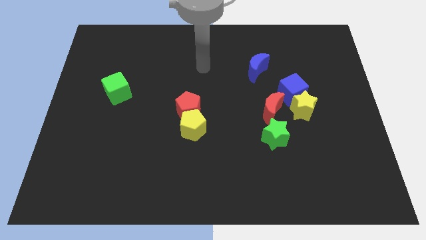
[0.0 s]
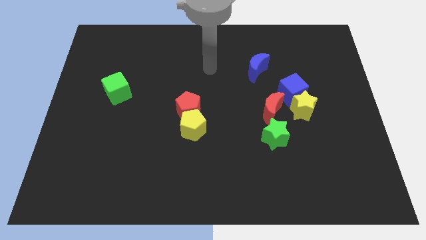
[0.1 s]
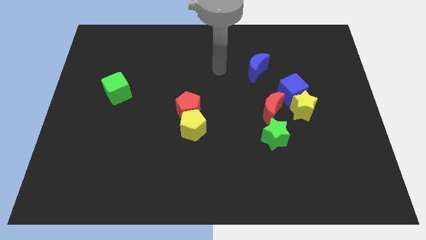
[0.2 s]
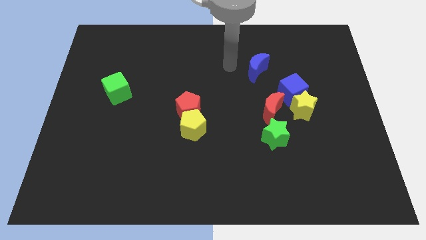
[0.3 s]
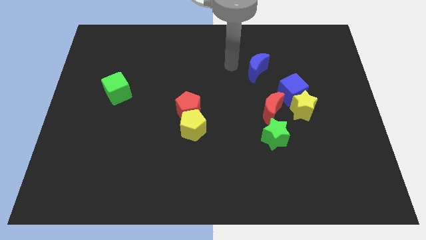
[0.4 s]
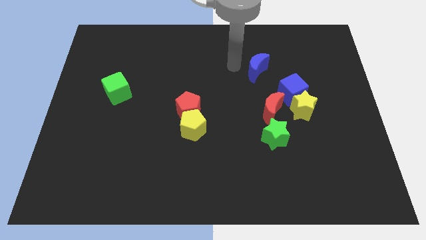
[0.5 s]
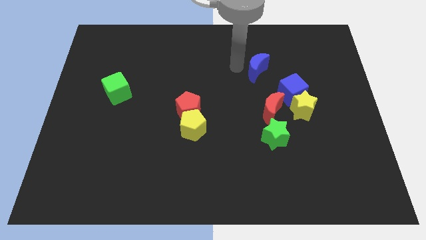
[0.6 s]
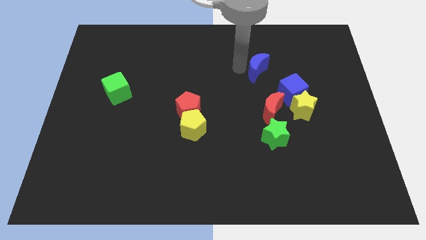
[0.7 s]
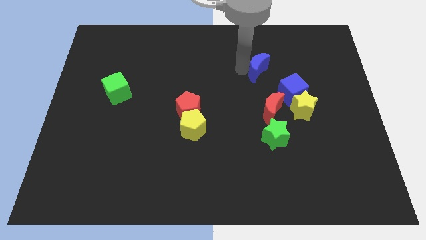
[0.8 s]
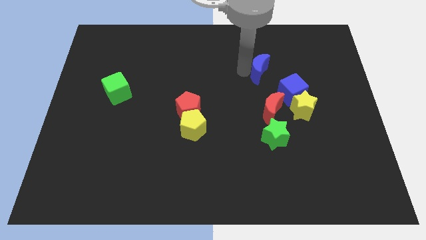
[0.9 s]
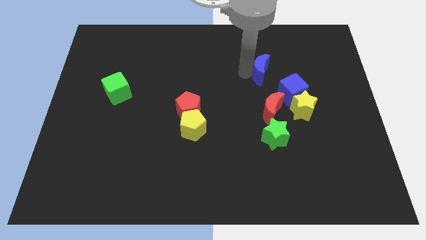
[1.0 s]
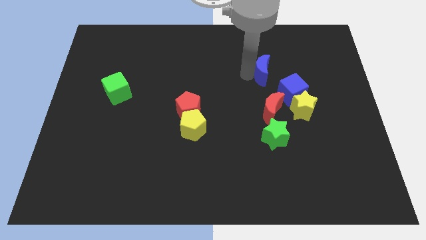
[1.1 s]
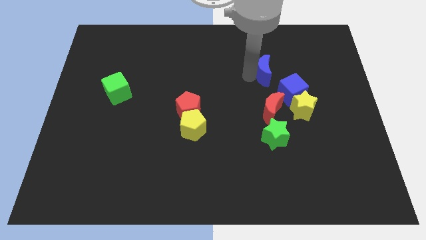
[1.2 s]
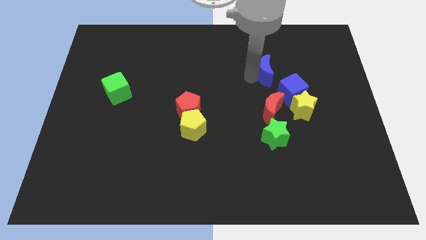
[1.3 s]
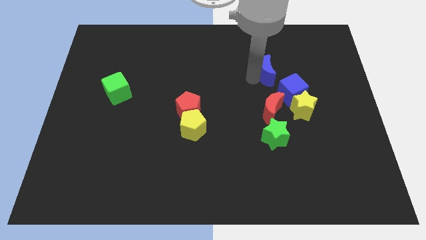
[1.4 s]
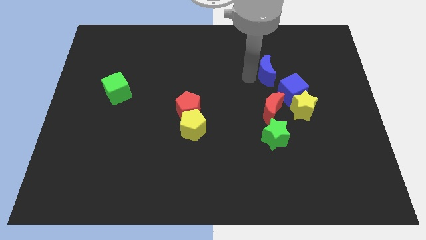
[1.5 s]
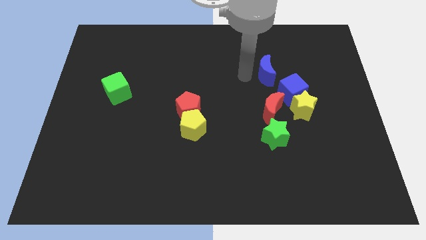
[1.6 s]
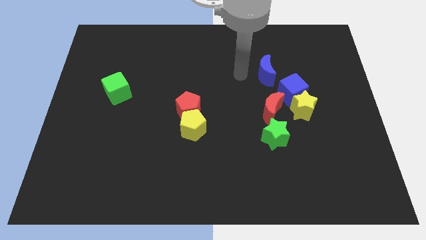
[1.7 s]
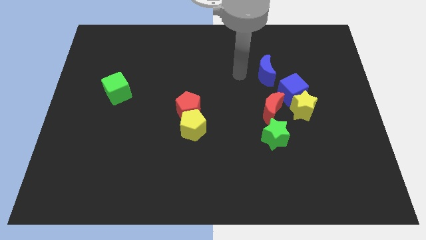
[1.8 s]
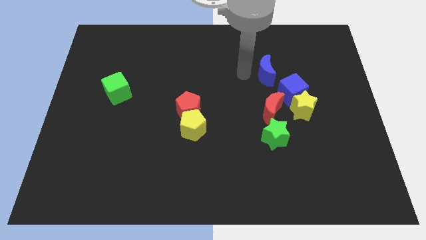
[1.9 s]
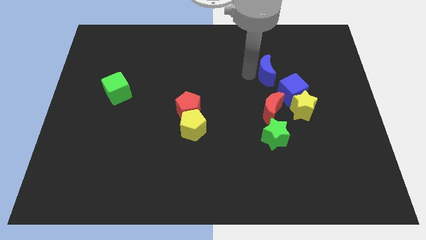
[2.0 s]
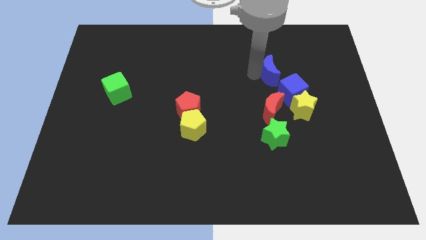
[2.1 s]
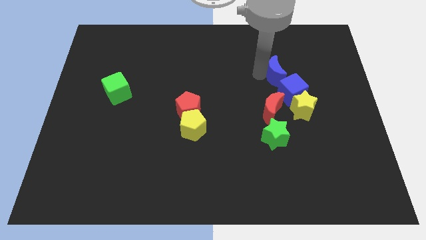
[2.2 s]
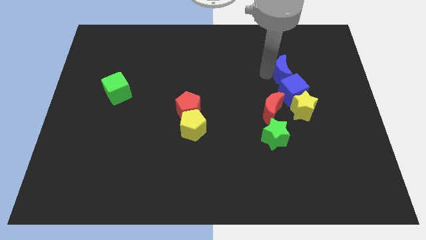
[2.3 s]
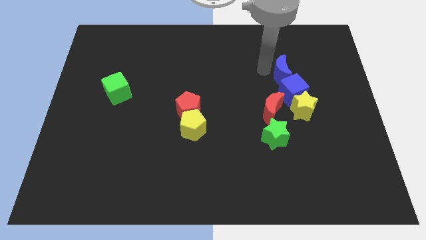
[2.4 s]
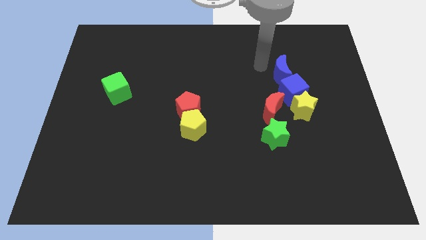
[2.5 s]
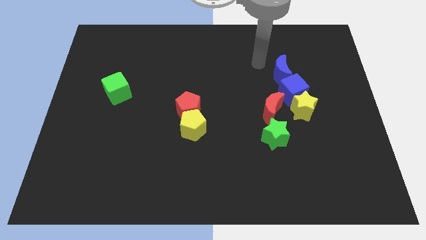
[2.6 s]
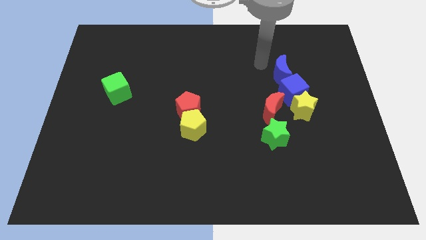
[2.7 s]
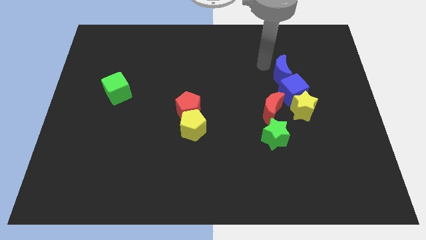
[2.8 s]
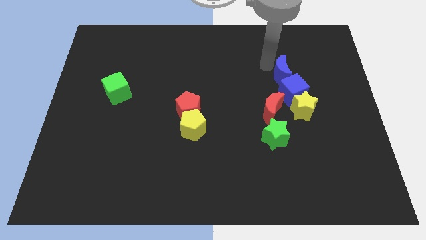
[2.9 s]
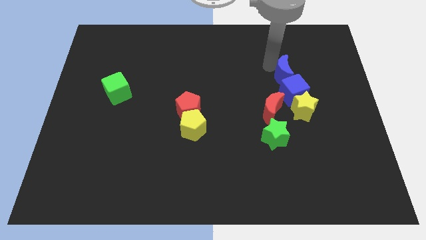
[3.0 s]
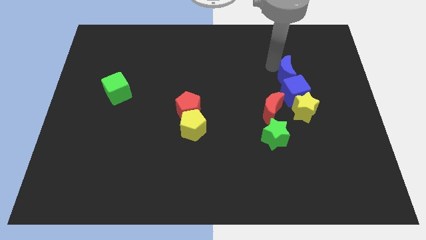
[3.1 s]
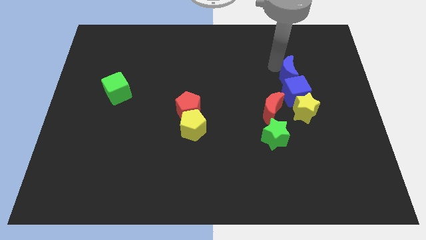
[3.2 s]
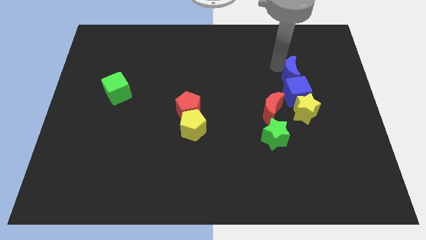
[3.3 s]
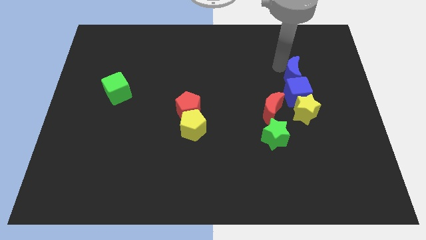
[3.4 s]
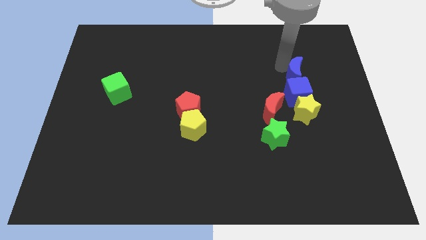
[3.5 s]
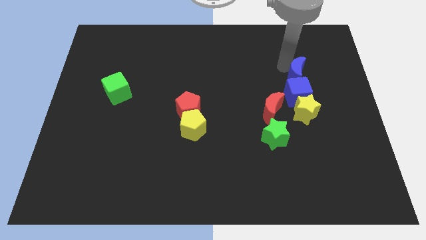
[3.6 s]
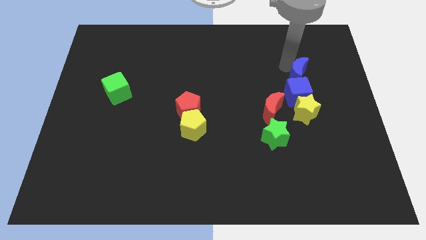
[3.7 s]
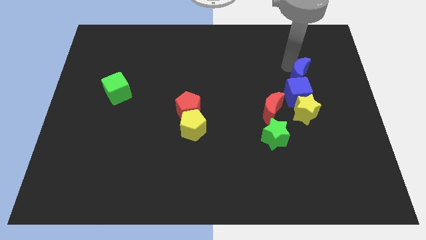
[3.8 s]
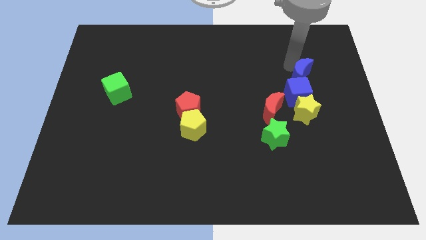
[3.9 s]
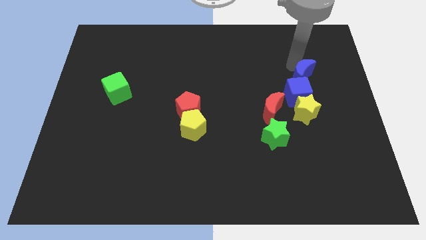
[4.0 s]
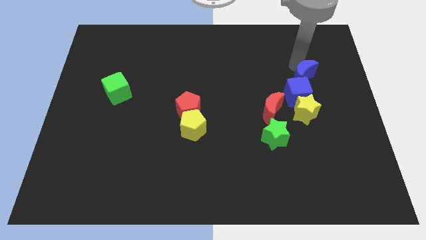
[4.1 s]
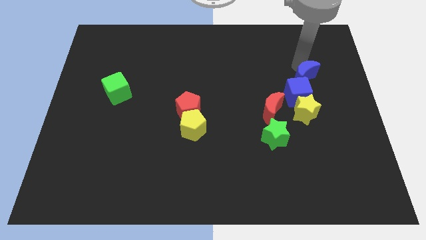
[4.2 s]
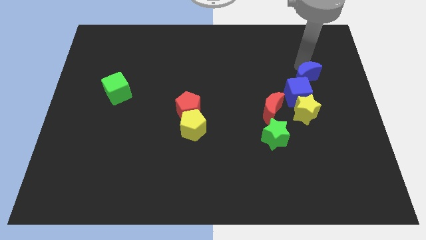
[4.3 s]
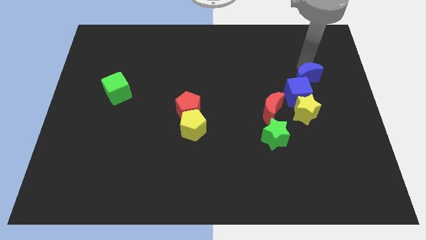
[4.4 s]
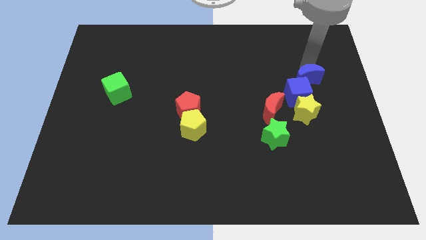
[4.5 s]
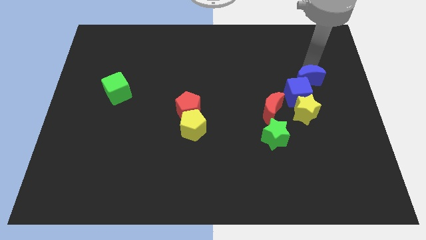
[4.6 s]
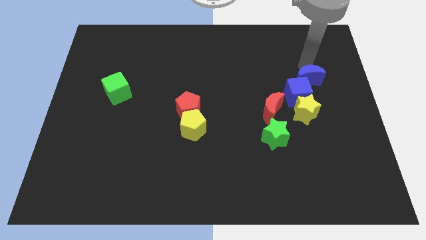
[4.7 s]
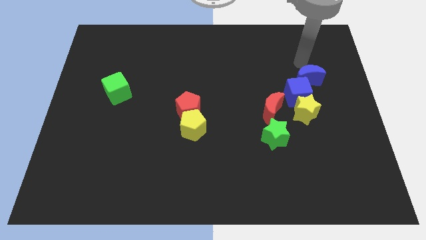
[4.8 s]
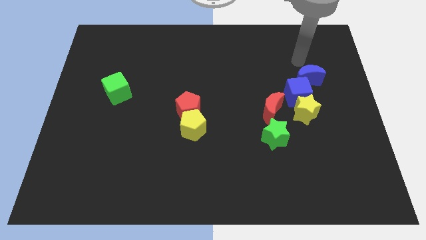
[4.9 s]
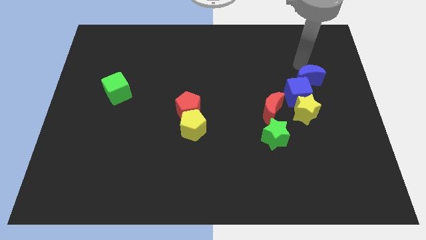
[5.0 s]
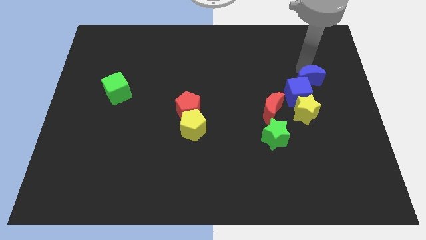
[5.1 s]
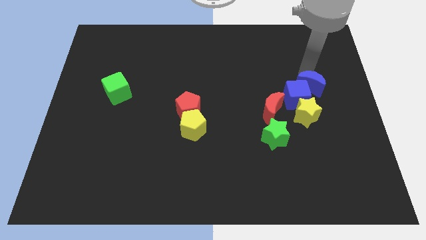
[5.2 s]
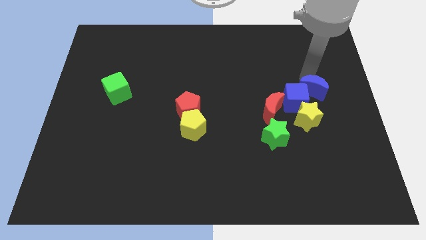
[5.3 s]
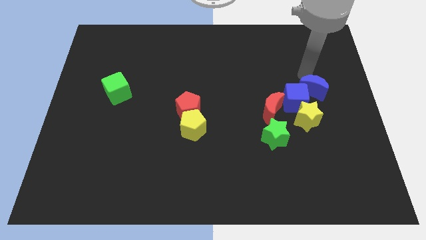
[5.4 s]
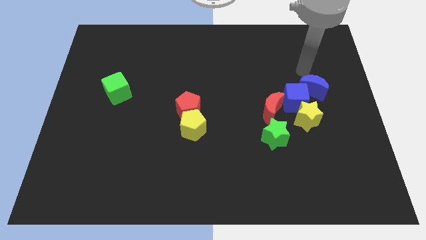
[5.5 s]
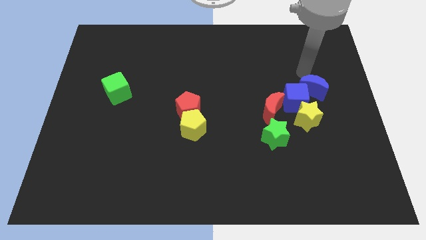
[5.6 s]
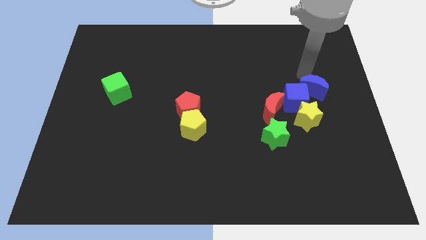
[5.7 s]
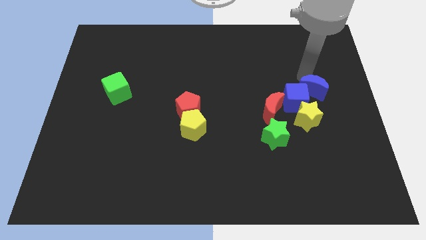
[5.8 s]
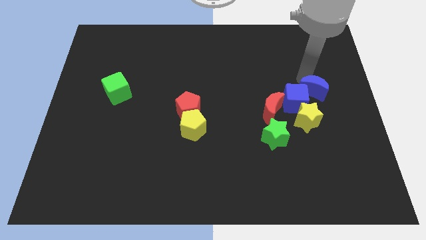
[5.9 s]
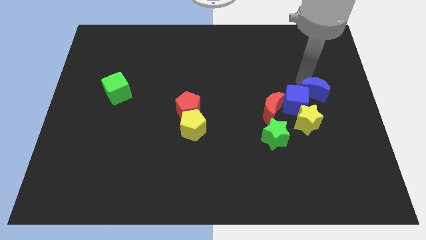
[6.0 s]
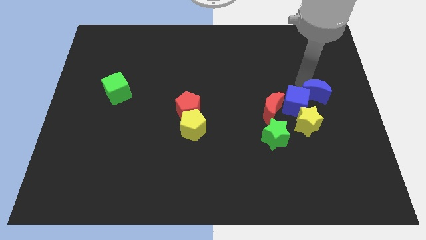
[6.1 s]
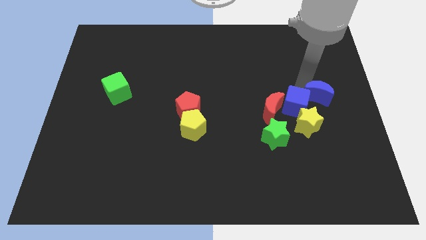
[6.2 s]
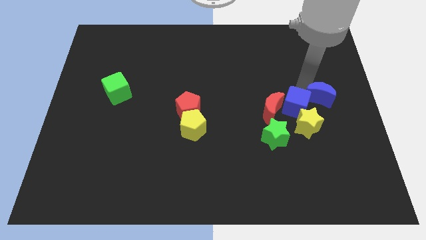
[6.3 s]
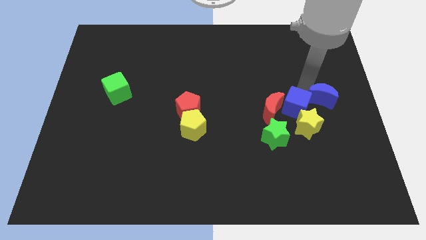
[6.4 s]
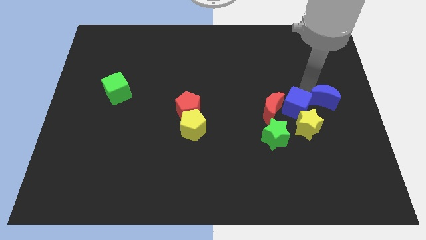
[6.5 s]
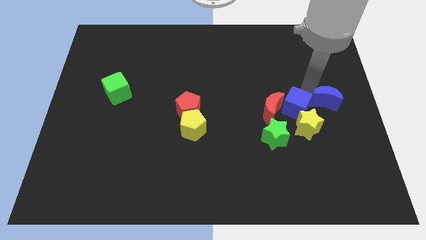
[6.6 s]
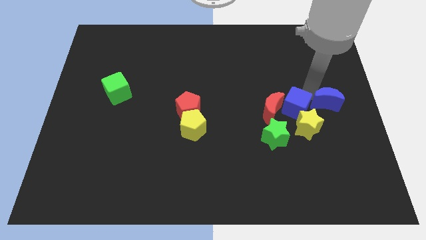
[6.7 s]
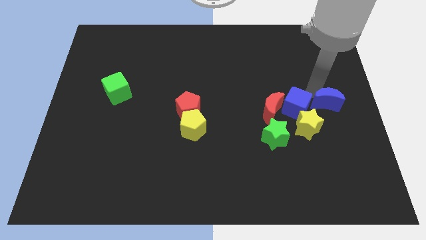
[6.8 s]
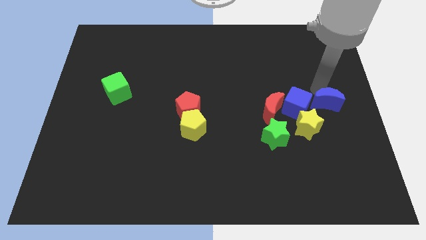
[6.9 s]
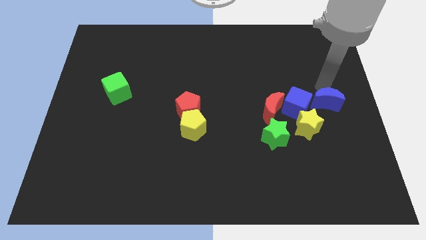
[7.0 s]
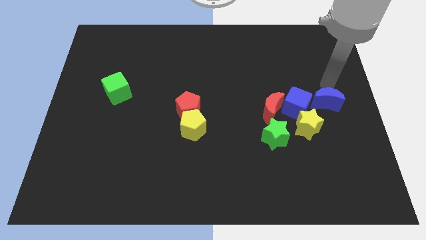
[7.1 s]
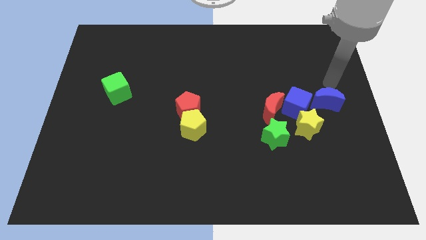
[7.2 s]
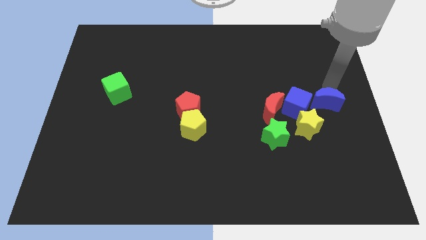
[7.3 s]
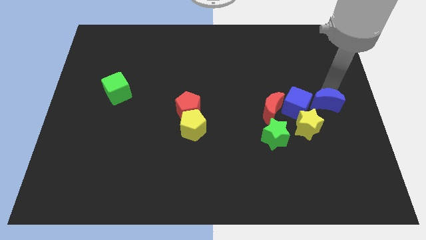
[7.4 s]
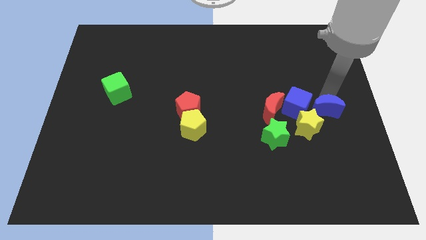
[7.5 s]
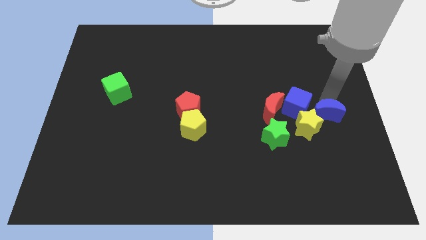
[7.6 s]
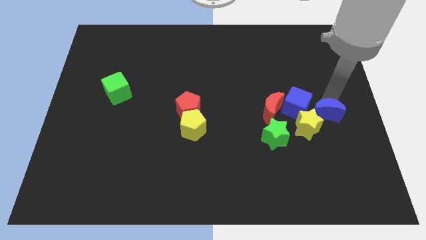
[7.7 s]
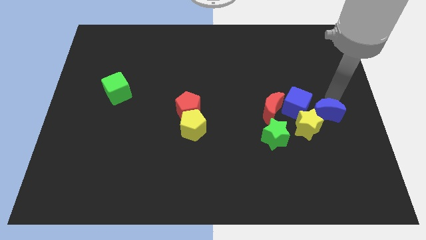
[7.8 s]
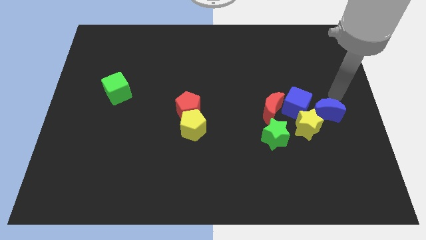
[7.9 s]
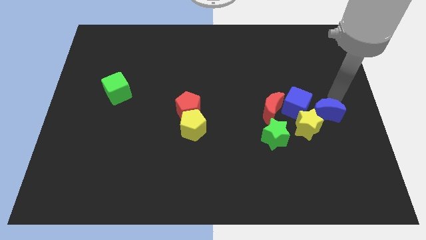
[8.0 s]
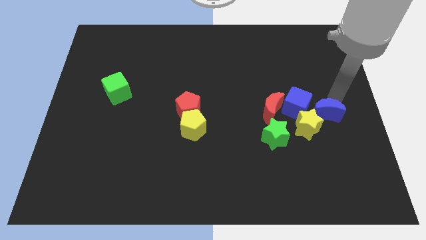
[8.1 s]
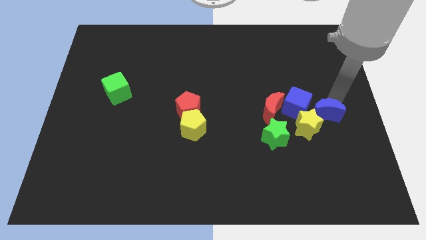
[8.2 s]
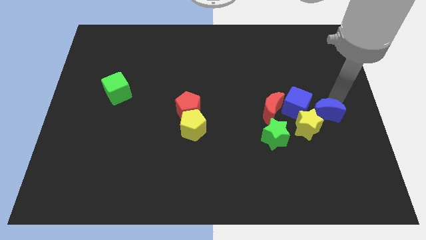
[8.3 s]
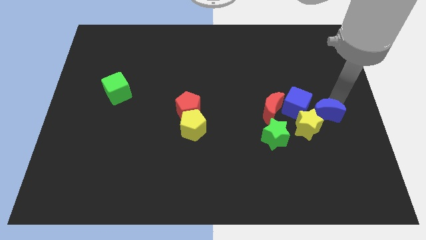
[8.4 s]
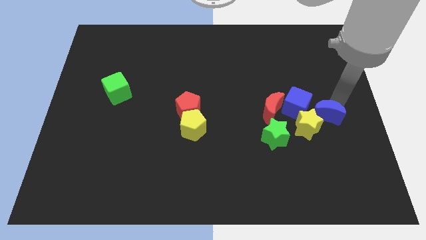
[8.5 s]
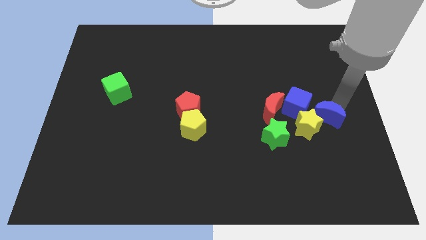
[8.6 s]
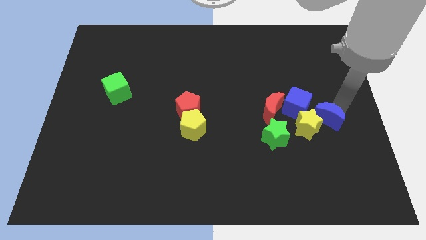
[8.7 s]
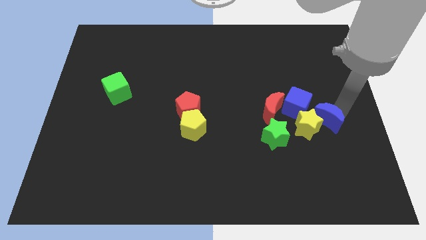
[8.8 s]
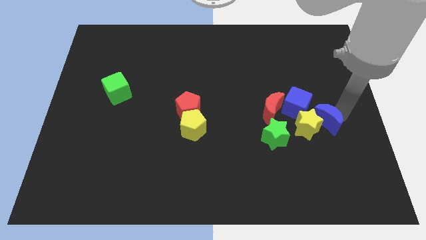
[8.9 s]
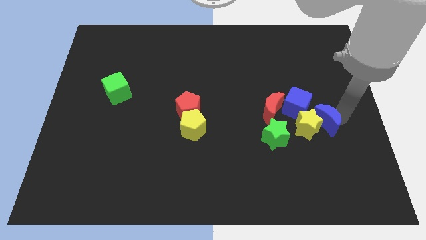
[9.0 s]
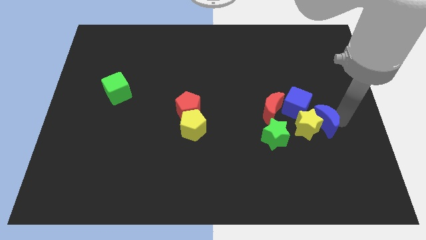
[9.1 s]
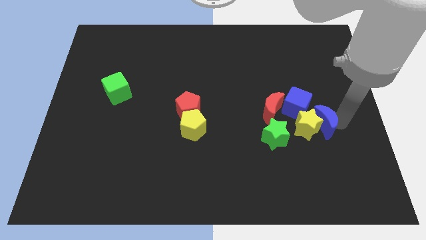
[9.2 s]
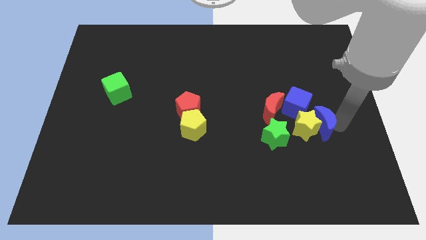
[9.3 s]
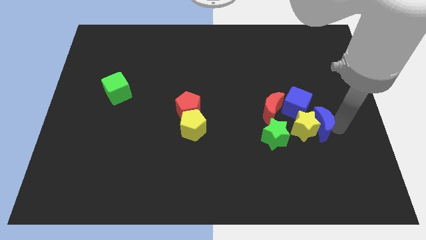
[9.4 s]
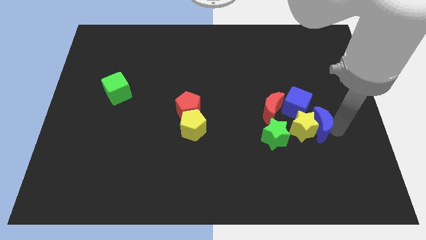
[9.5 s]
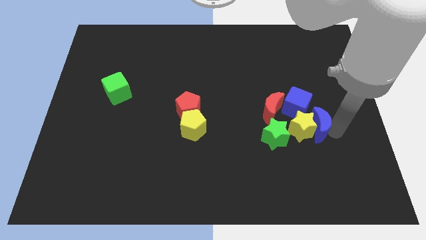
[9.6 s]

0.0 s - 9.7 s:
slide the blue moon to the bottom right side of the red moon
